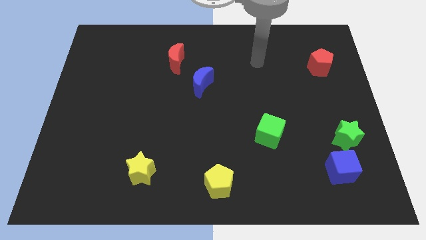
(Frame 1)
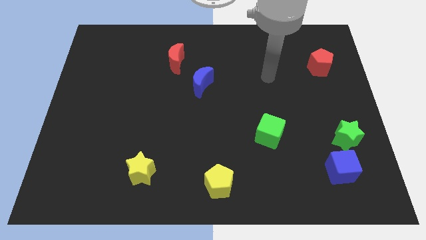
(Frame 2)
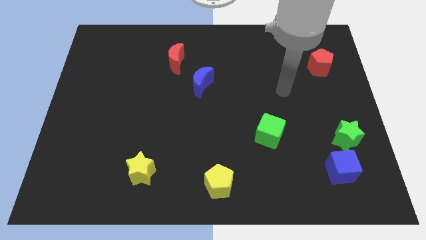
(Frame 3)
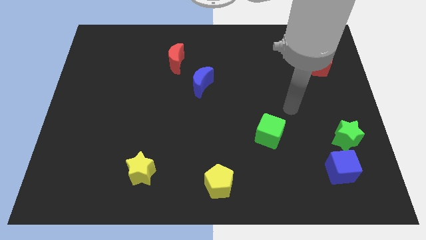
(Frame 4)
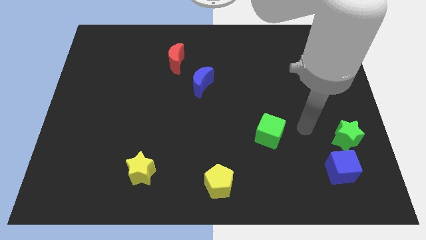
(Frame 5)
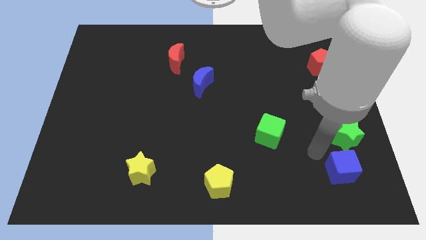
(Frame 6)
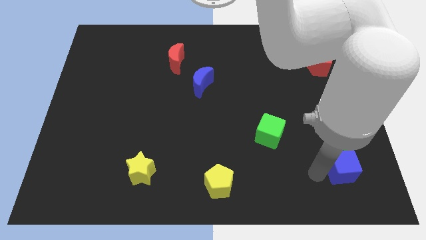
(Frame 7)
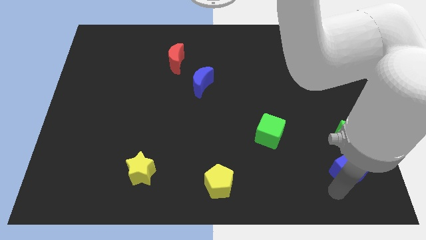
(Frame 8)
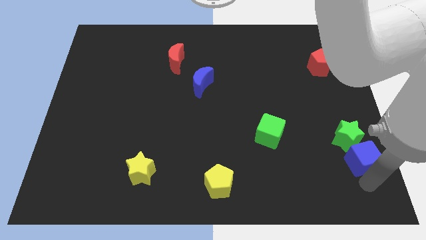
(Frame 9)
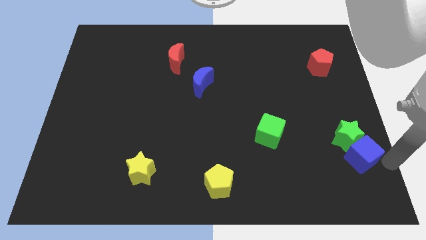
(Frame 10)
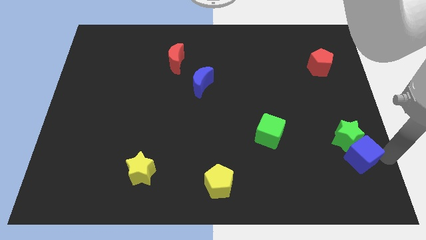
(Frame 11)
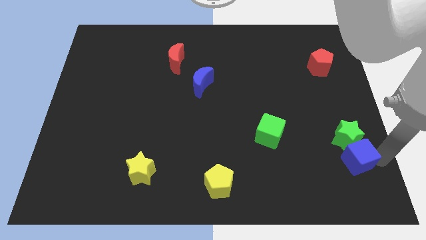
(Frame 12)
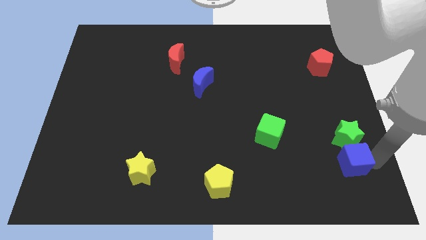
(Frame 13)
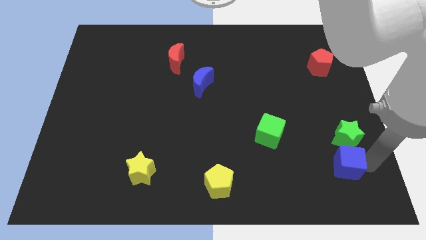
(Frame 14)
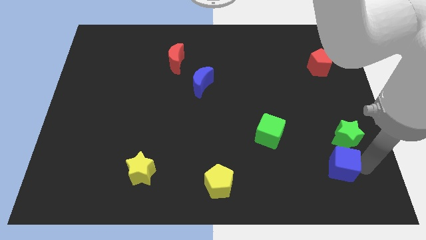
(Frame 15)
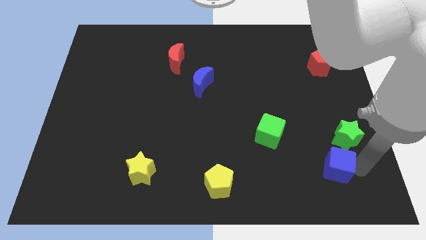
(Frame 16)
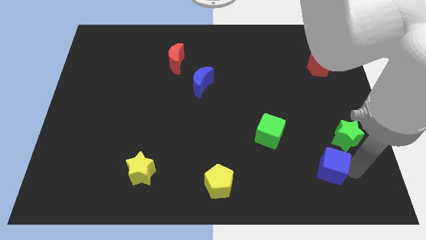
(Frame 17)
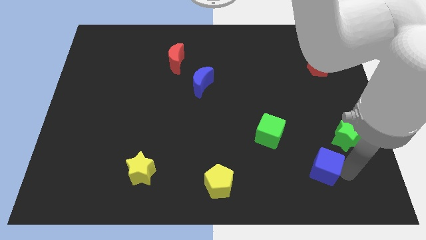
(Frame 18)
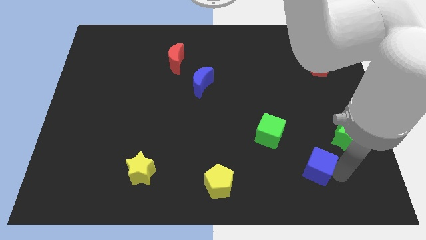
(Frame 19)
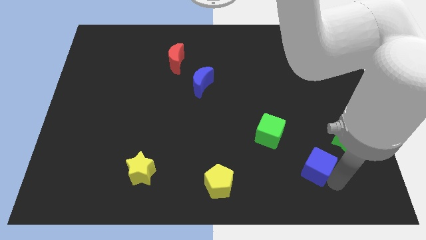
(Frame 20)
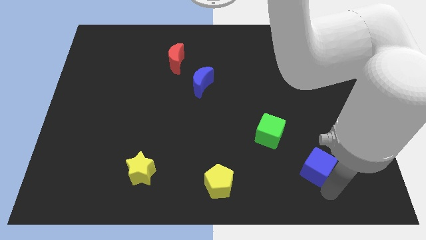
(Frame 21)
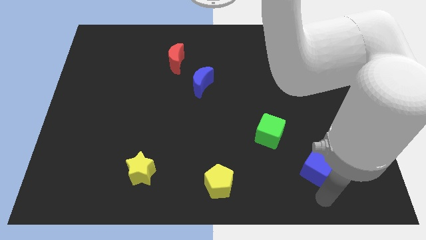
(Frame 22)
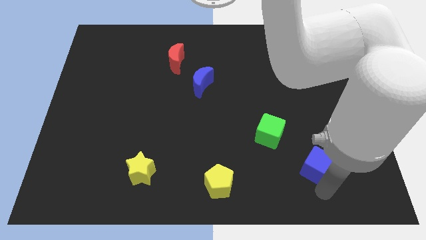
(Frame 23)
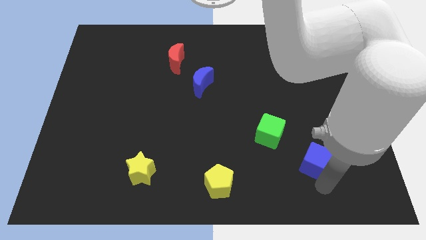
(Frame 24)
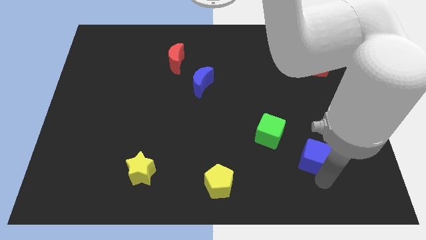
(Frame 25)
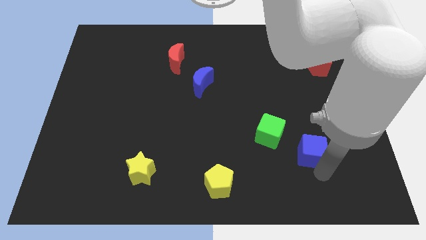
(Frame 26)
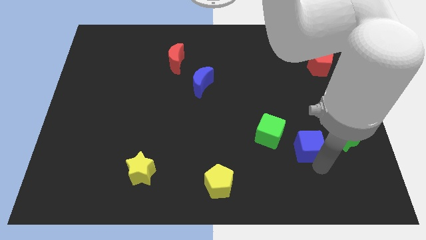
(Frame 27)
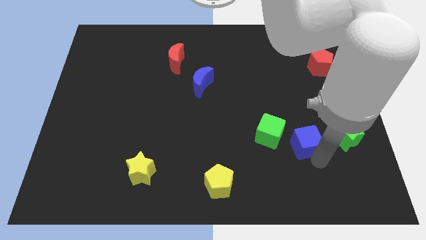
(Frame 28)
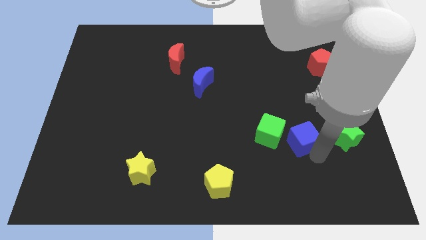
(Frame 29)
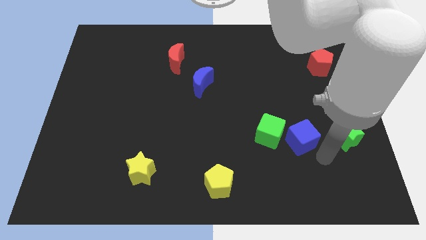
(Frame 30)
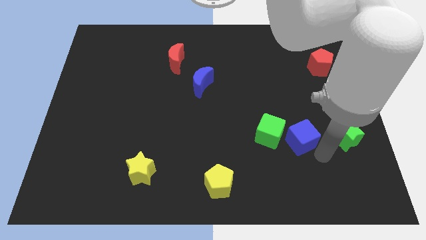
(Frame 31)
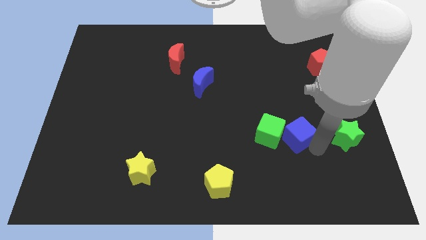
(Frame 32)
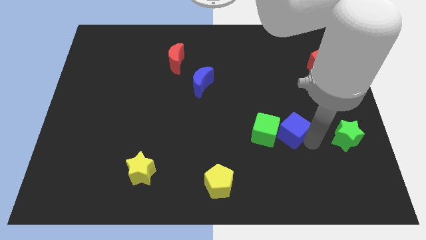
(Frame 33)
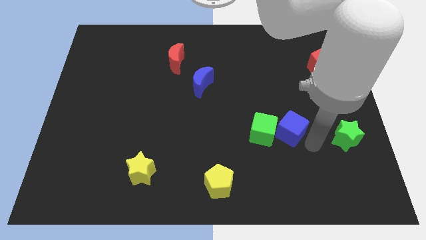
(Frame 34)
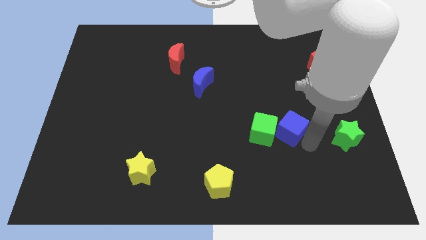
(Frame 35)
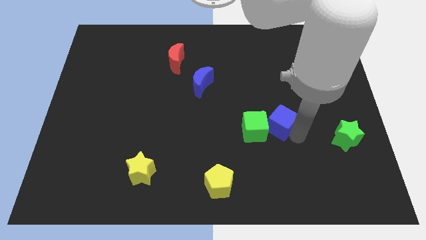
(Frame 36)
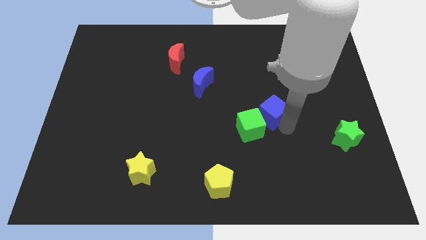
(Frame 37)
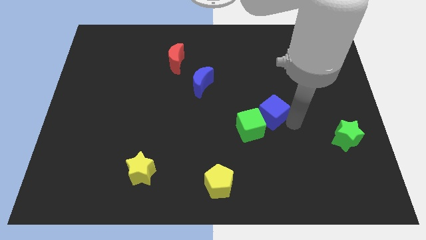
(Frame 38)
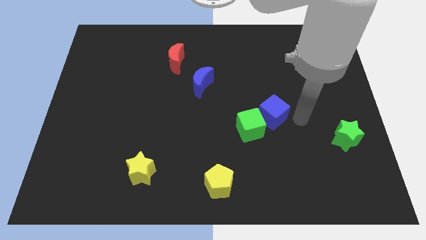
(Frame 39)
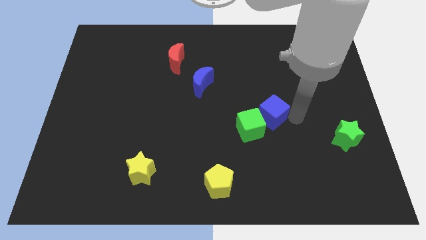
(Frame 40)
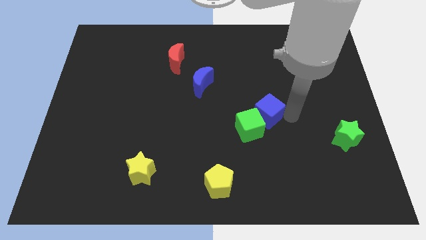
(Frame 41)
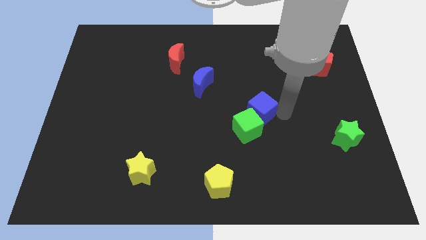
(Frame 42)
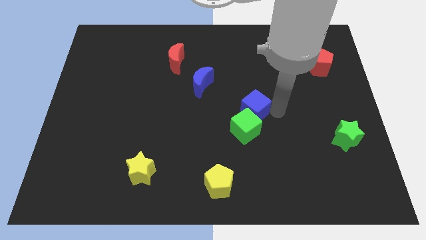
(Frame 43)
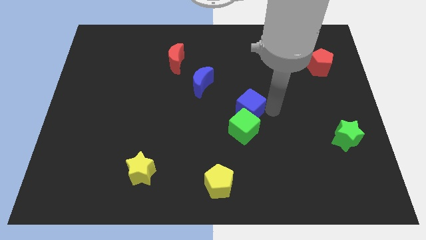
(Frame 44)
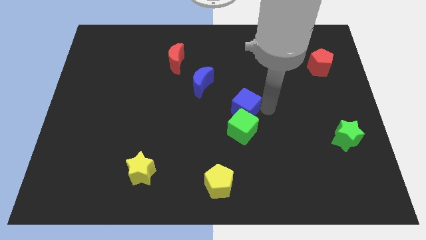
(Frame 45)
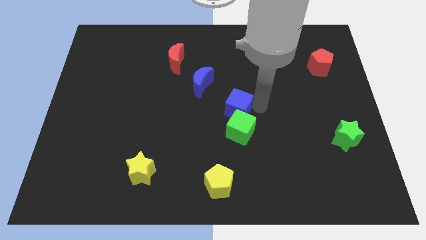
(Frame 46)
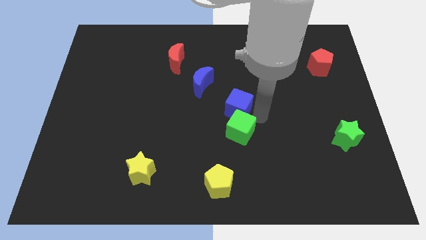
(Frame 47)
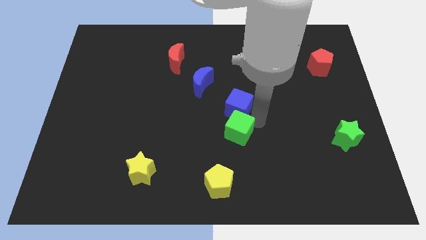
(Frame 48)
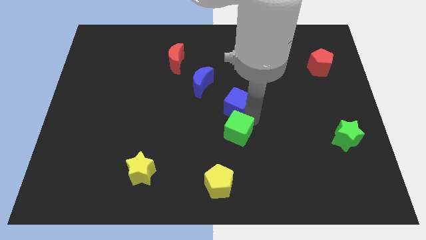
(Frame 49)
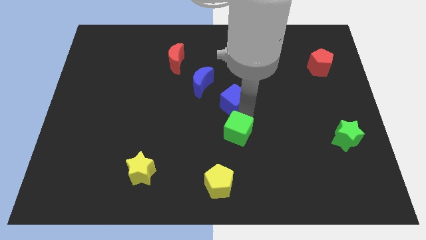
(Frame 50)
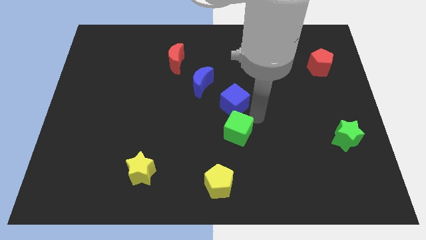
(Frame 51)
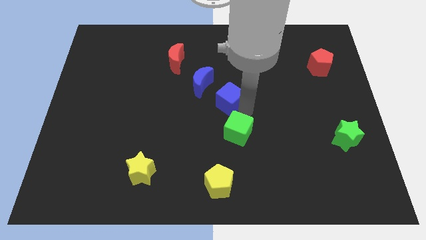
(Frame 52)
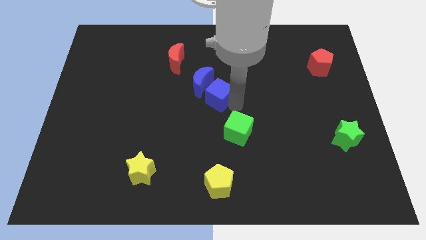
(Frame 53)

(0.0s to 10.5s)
push the blue cube next to the blue moon

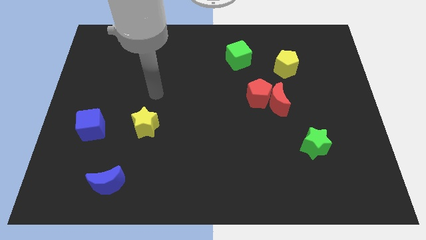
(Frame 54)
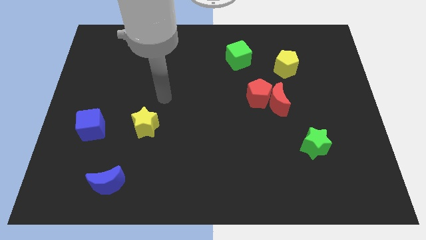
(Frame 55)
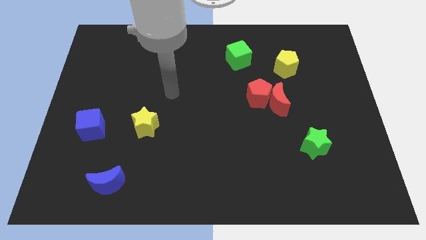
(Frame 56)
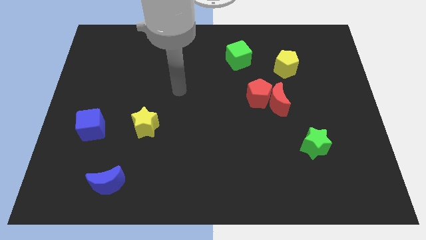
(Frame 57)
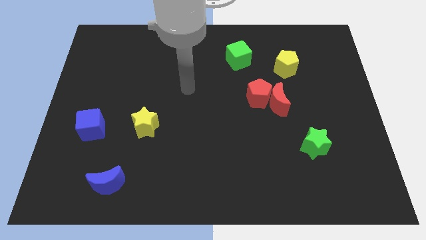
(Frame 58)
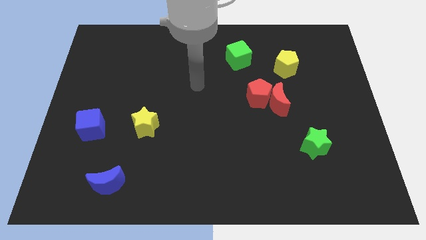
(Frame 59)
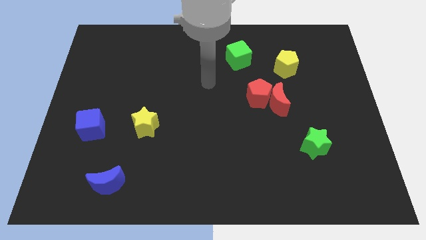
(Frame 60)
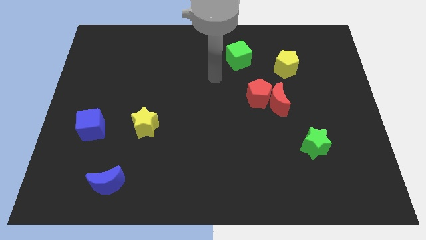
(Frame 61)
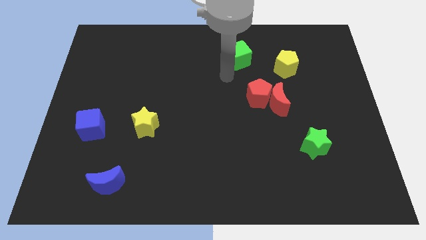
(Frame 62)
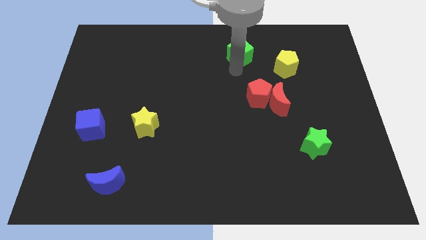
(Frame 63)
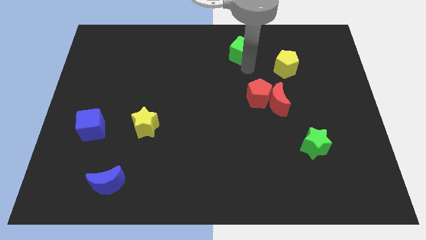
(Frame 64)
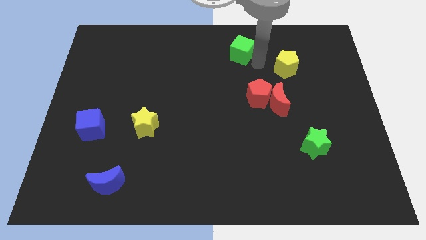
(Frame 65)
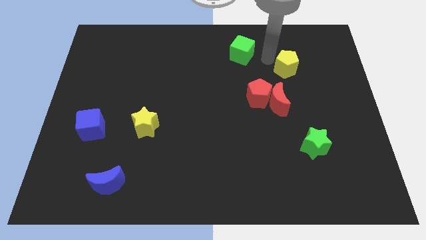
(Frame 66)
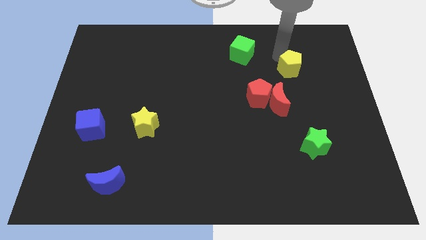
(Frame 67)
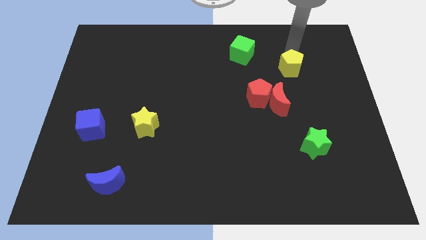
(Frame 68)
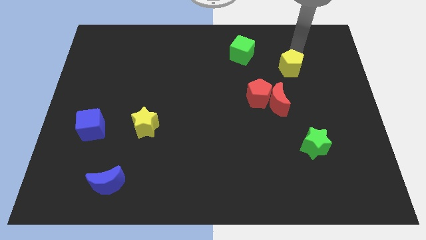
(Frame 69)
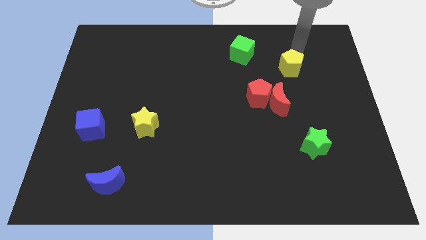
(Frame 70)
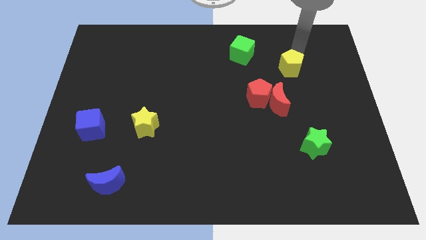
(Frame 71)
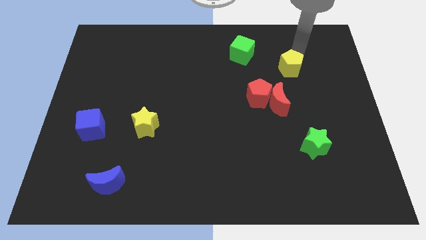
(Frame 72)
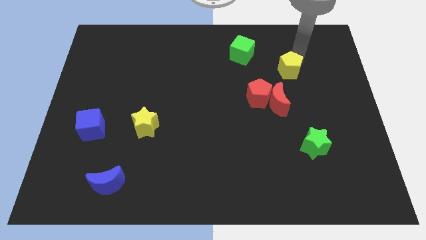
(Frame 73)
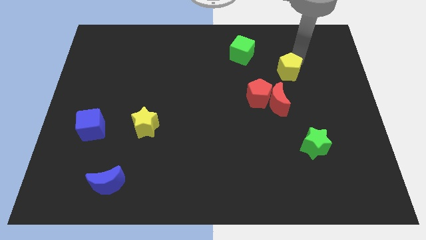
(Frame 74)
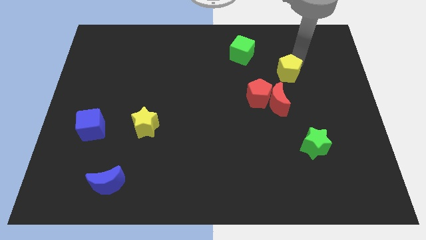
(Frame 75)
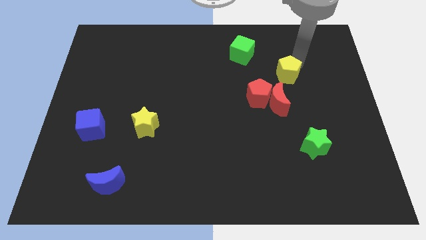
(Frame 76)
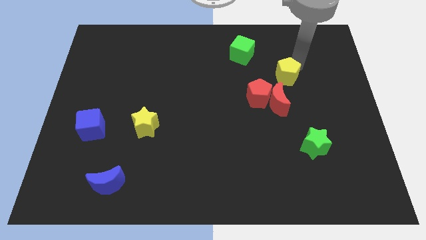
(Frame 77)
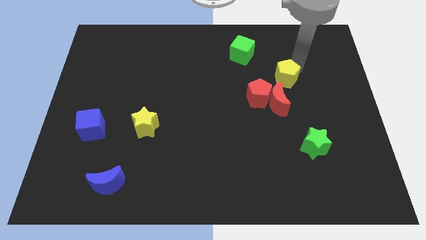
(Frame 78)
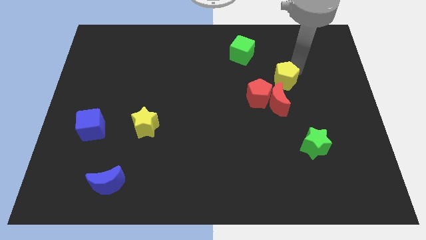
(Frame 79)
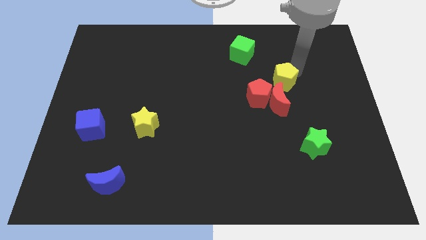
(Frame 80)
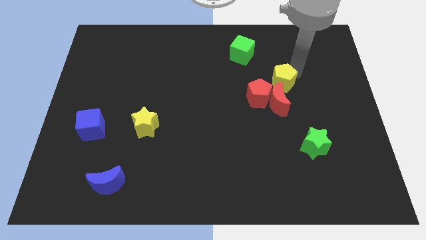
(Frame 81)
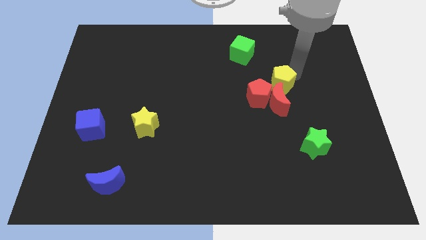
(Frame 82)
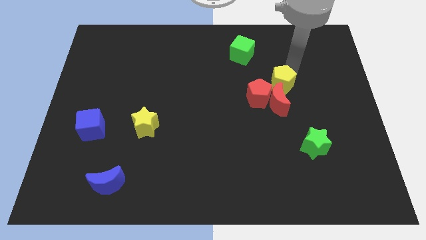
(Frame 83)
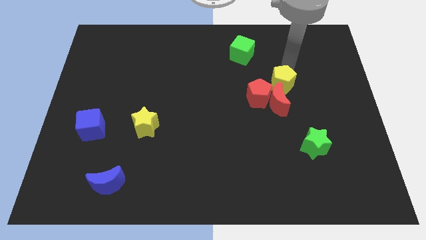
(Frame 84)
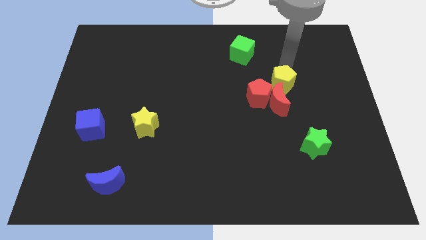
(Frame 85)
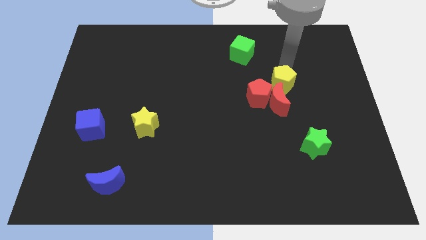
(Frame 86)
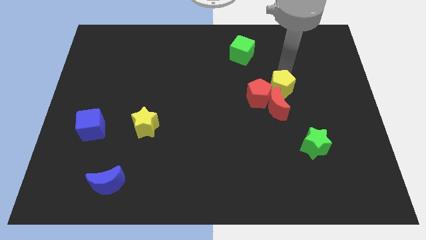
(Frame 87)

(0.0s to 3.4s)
push the yellow pentagon close to the red moon
